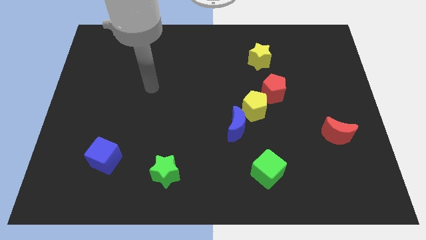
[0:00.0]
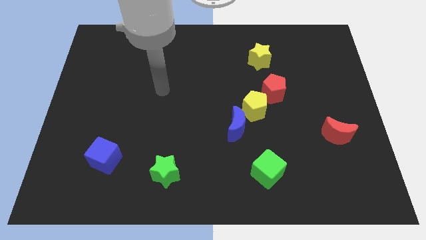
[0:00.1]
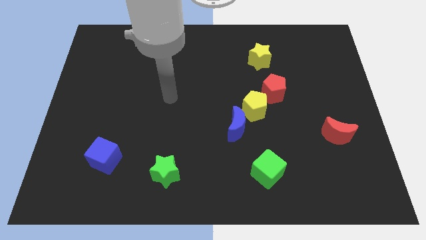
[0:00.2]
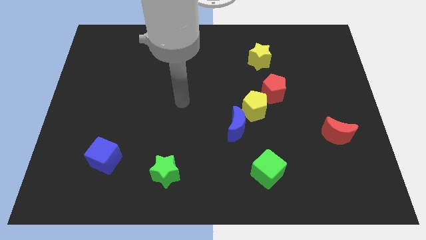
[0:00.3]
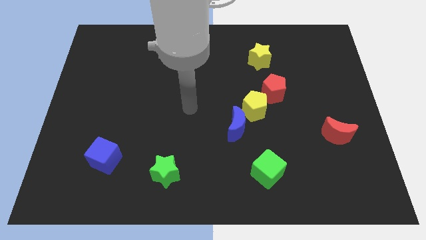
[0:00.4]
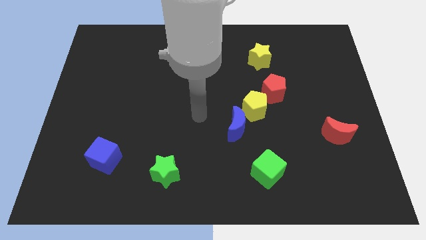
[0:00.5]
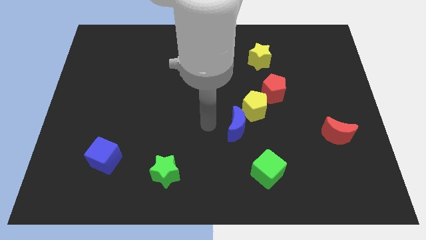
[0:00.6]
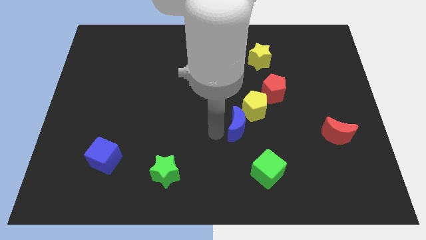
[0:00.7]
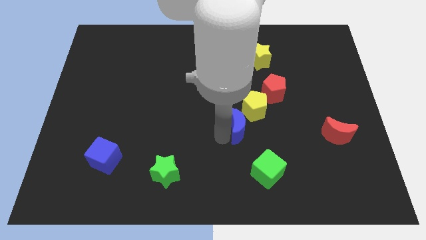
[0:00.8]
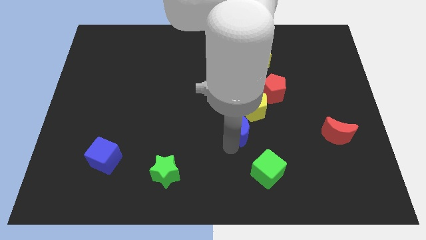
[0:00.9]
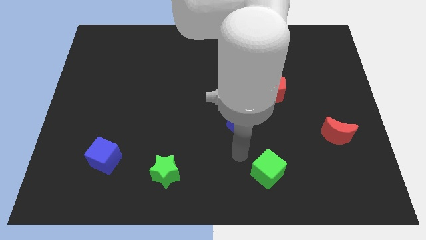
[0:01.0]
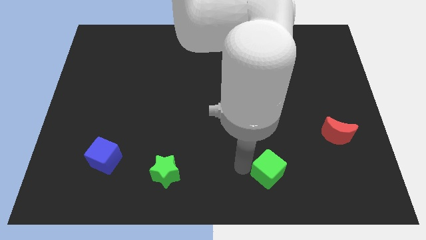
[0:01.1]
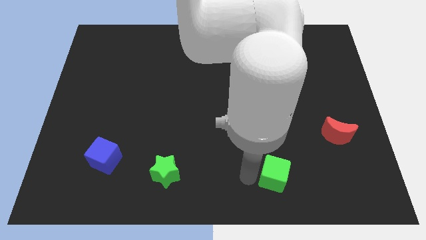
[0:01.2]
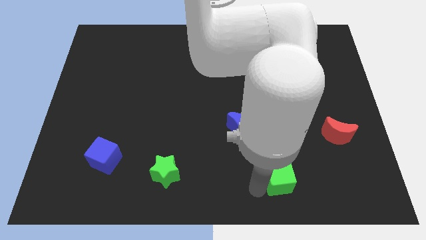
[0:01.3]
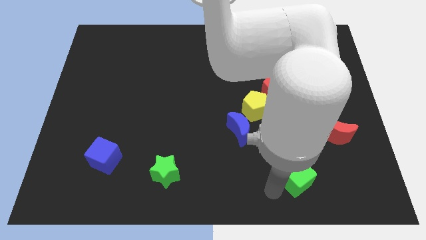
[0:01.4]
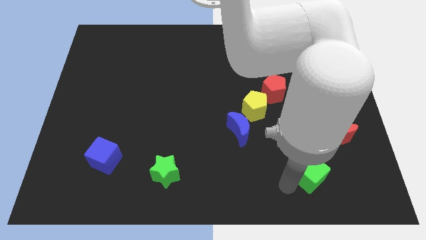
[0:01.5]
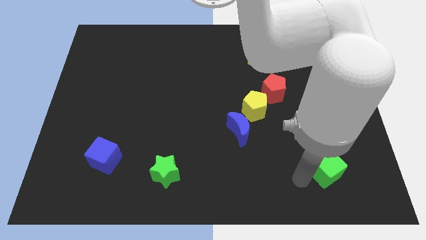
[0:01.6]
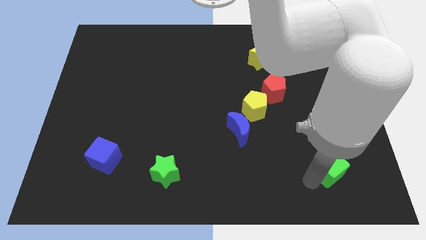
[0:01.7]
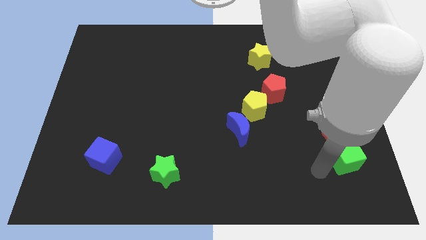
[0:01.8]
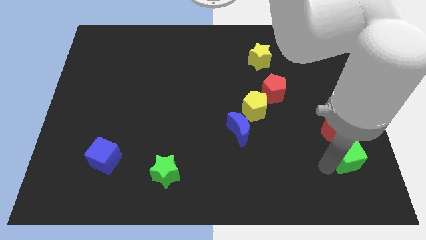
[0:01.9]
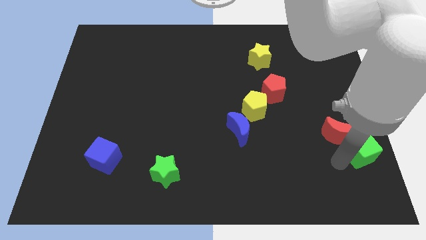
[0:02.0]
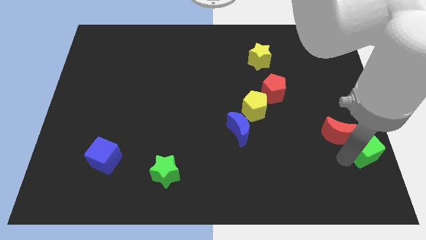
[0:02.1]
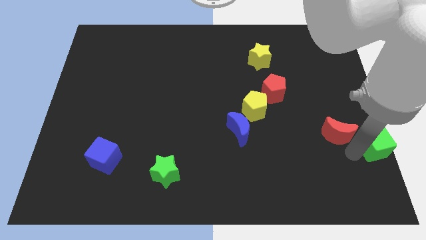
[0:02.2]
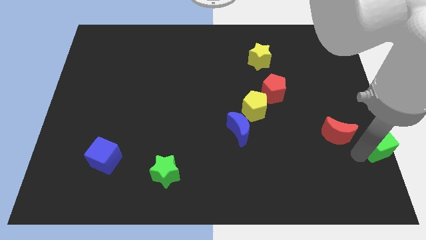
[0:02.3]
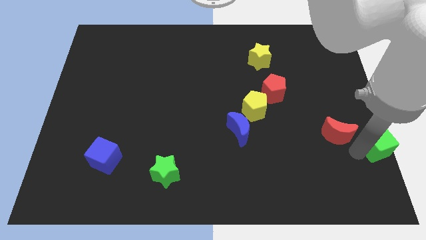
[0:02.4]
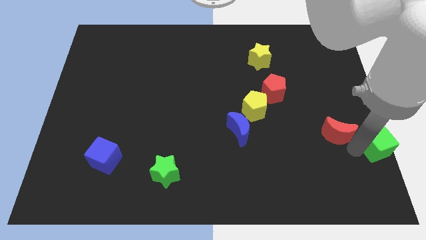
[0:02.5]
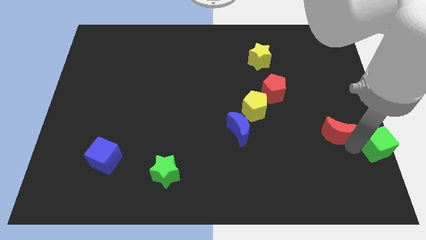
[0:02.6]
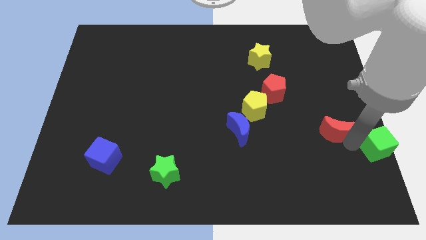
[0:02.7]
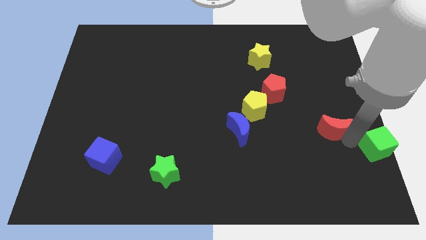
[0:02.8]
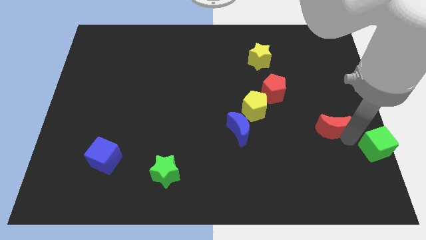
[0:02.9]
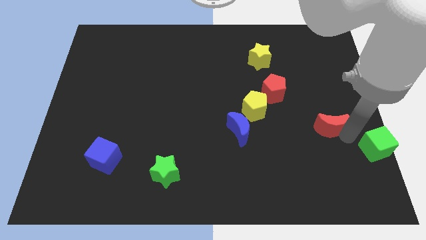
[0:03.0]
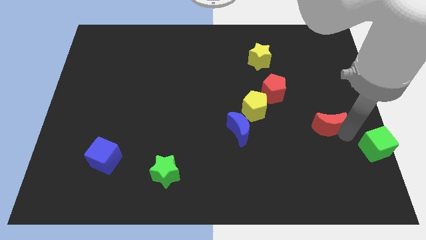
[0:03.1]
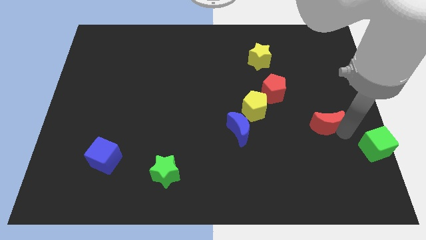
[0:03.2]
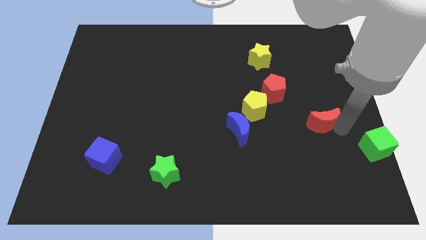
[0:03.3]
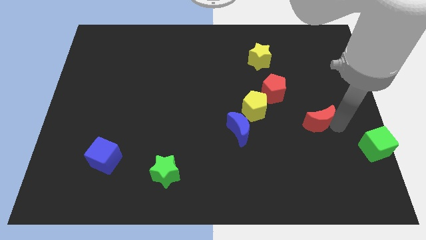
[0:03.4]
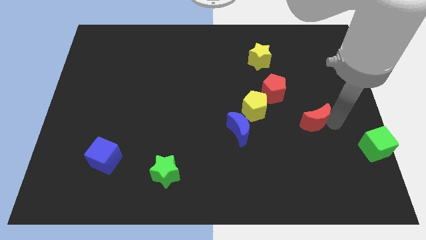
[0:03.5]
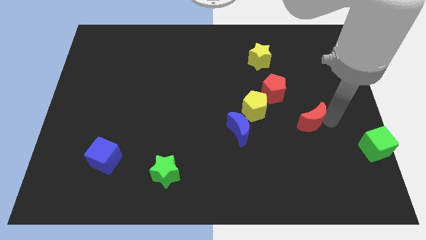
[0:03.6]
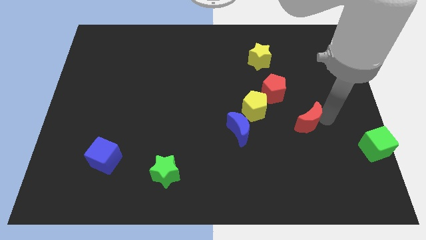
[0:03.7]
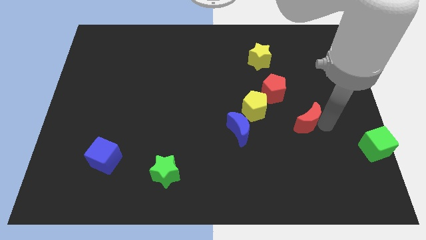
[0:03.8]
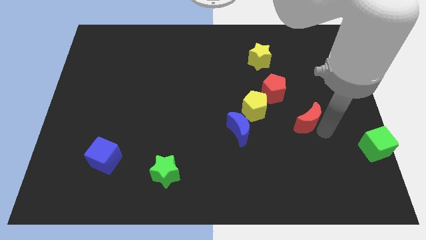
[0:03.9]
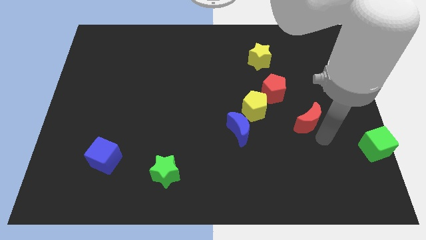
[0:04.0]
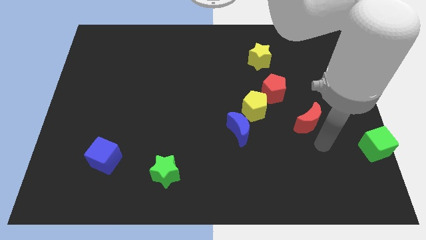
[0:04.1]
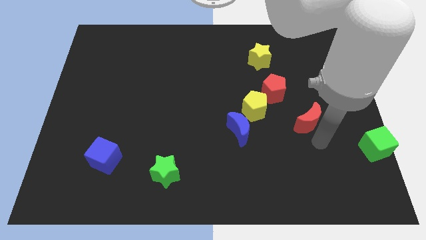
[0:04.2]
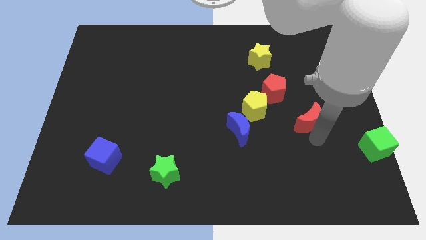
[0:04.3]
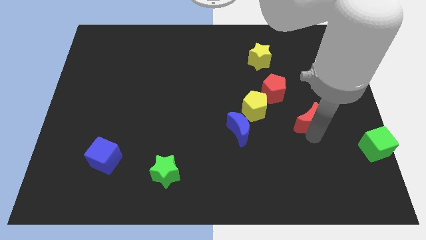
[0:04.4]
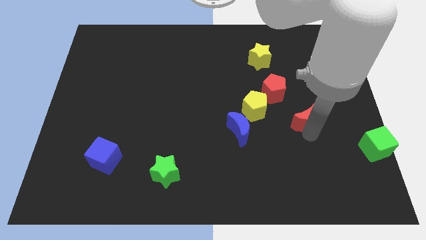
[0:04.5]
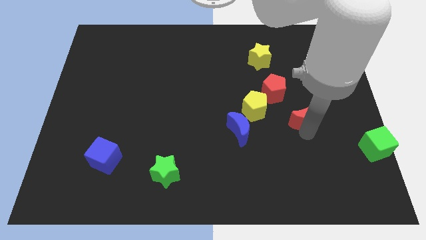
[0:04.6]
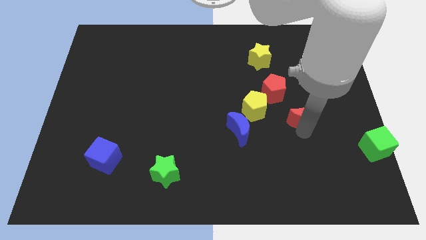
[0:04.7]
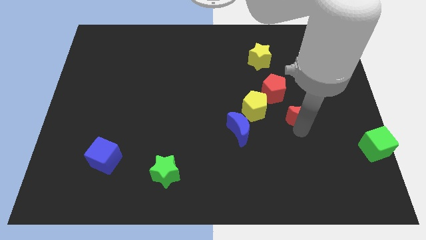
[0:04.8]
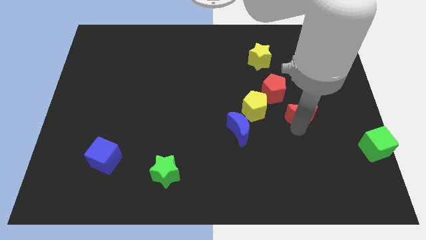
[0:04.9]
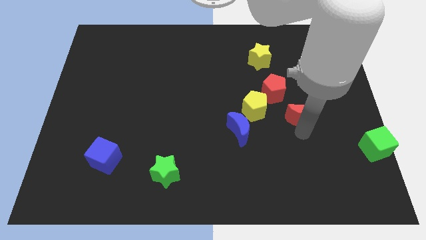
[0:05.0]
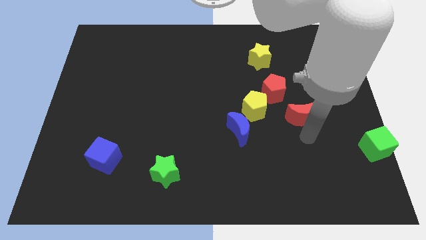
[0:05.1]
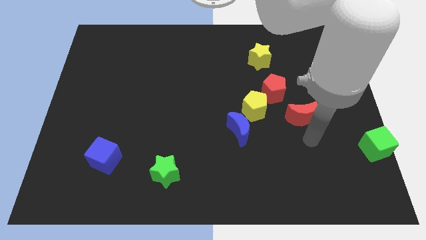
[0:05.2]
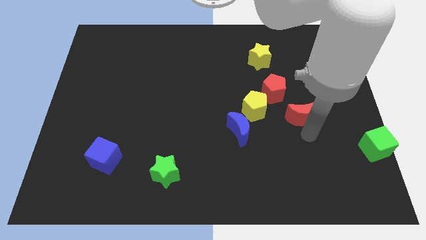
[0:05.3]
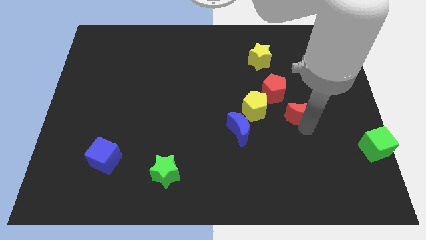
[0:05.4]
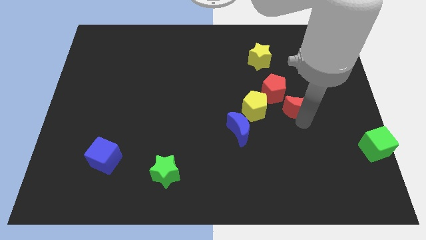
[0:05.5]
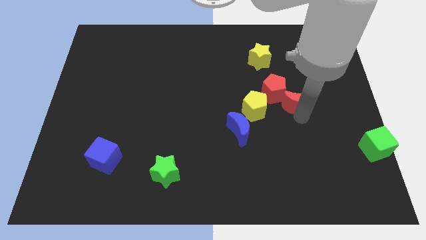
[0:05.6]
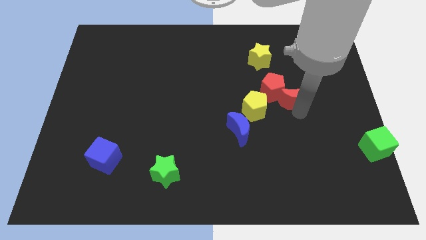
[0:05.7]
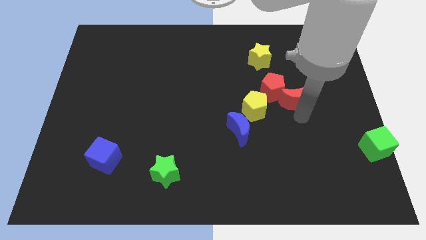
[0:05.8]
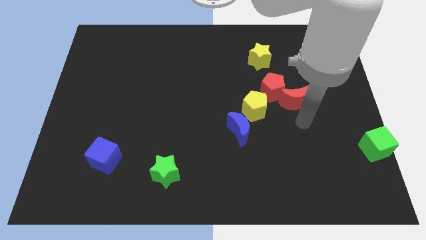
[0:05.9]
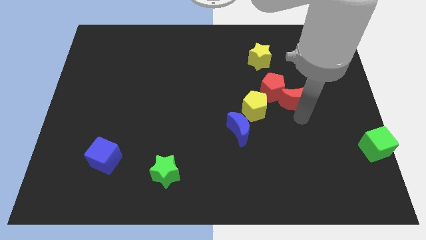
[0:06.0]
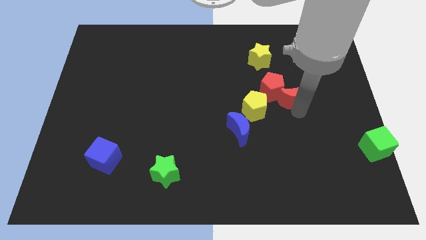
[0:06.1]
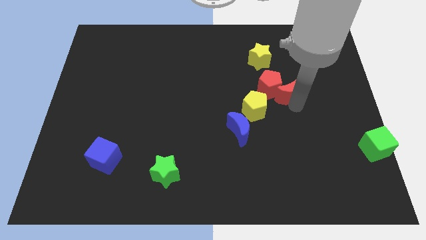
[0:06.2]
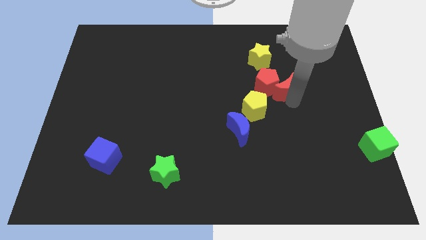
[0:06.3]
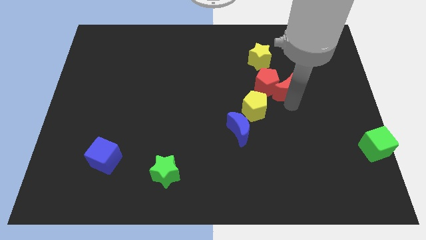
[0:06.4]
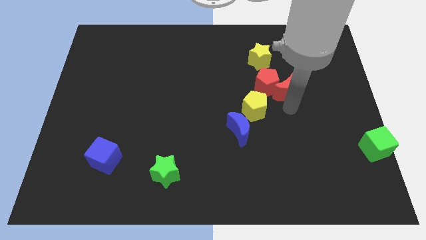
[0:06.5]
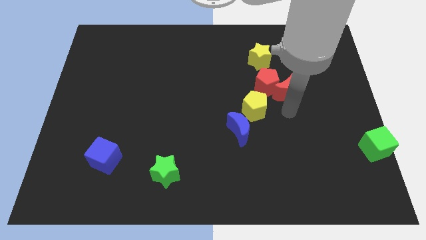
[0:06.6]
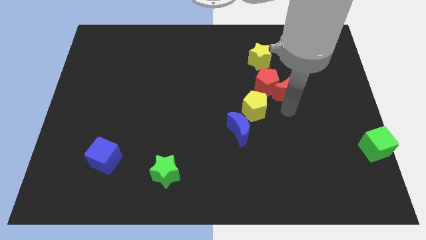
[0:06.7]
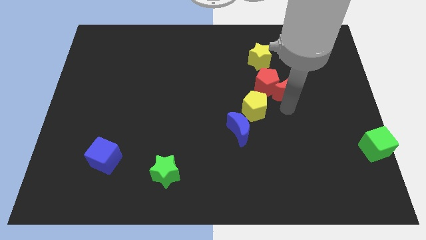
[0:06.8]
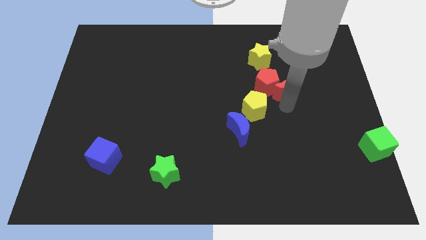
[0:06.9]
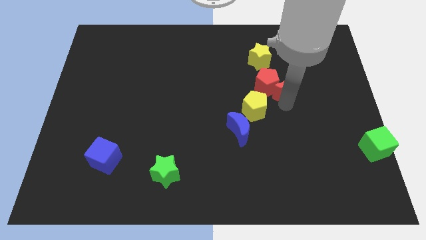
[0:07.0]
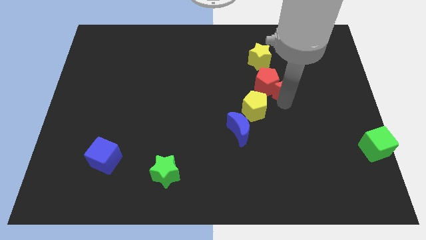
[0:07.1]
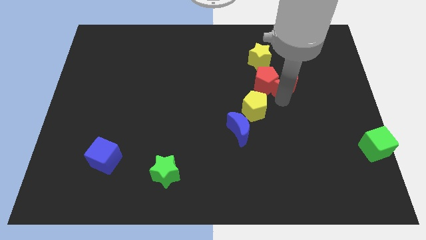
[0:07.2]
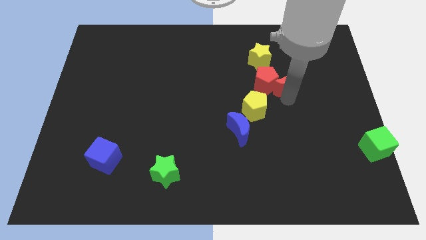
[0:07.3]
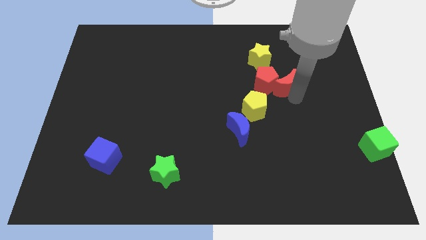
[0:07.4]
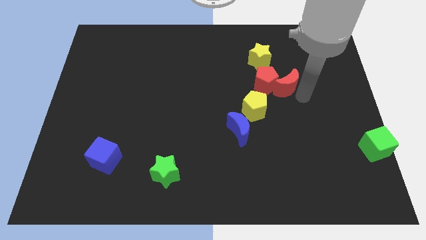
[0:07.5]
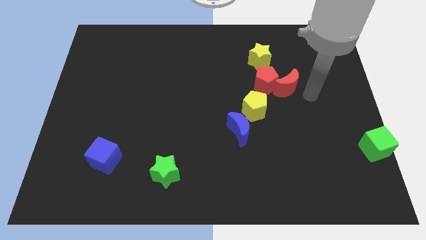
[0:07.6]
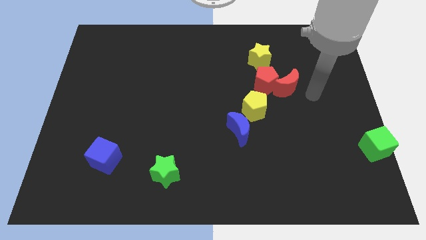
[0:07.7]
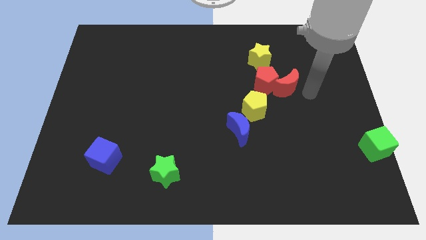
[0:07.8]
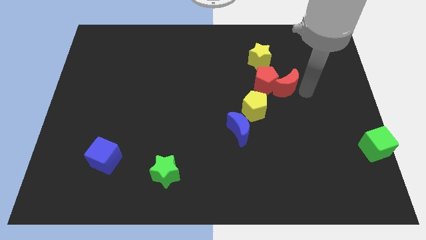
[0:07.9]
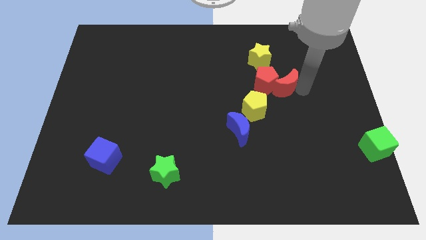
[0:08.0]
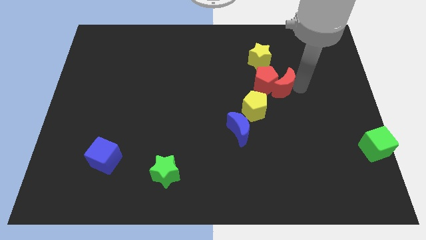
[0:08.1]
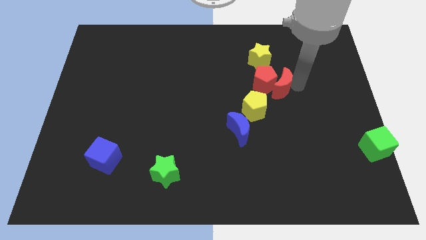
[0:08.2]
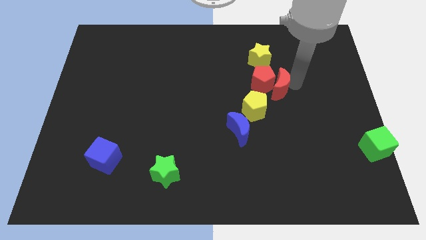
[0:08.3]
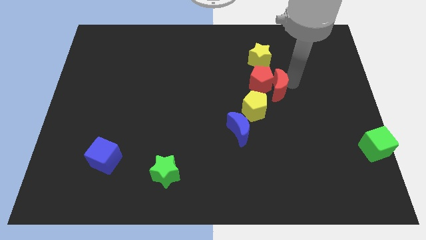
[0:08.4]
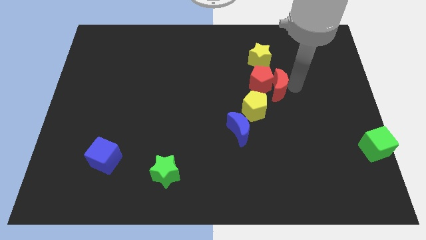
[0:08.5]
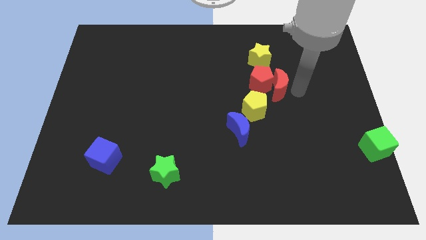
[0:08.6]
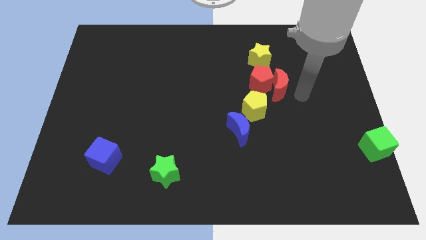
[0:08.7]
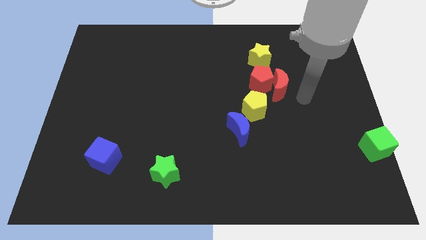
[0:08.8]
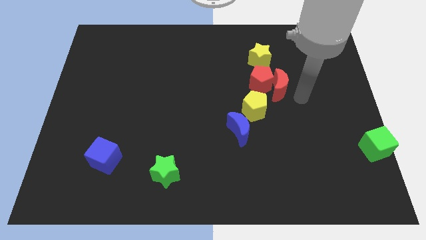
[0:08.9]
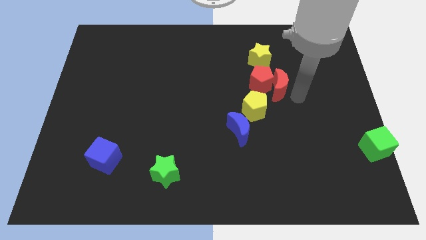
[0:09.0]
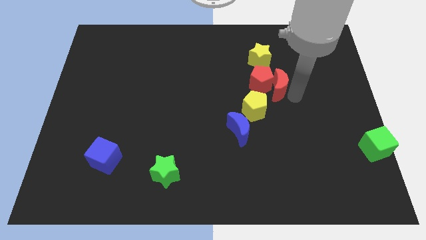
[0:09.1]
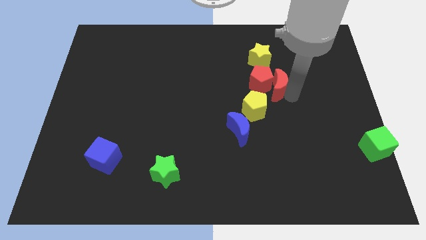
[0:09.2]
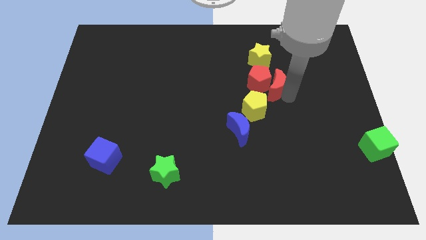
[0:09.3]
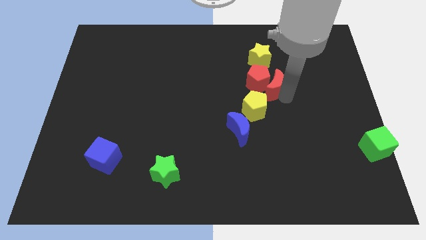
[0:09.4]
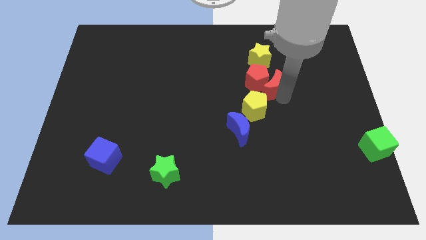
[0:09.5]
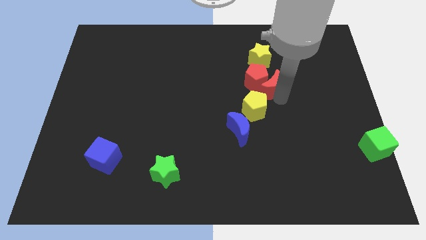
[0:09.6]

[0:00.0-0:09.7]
push the red moon to the top side of the yellow pentagon
